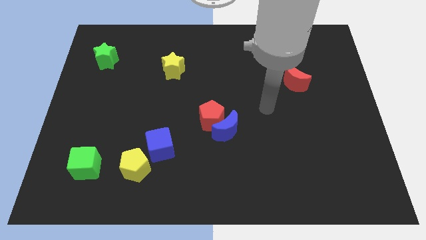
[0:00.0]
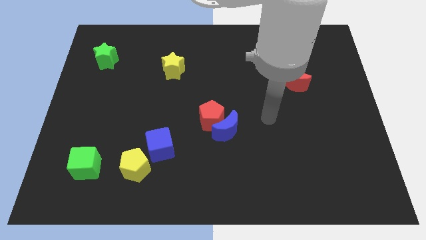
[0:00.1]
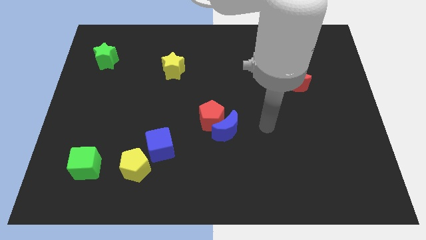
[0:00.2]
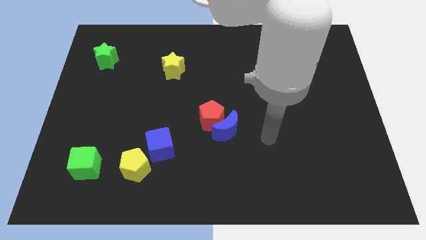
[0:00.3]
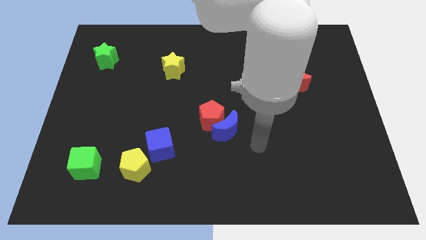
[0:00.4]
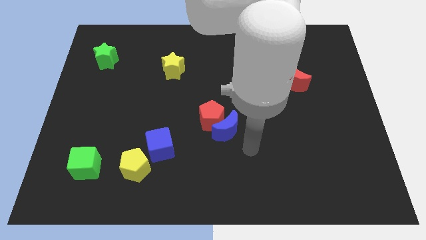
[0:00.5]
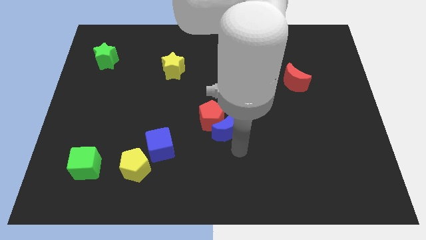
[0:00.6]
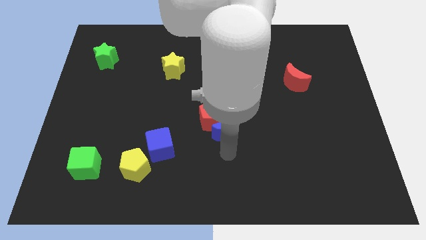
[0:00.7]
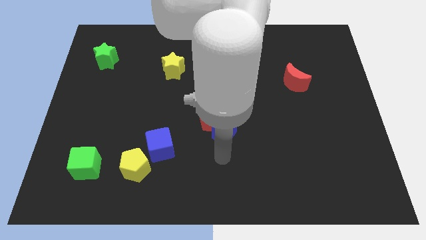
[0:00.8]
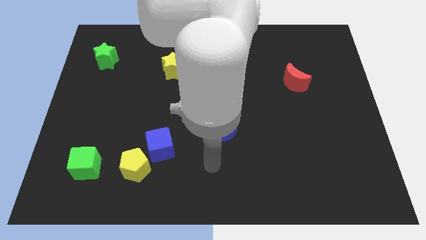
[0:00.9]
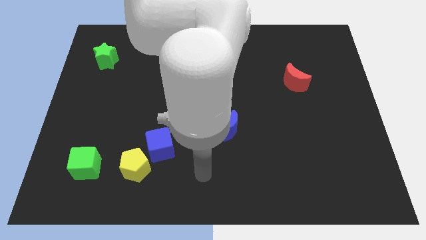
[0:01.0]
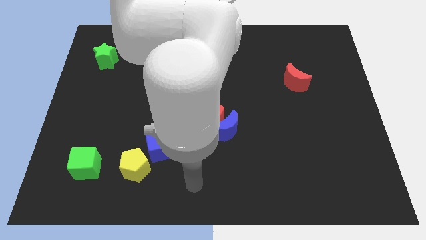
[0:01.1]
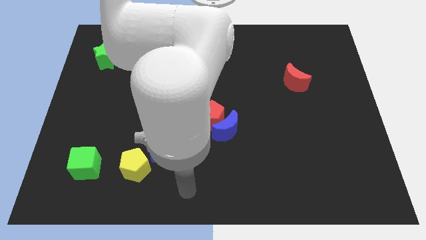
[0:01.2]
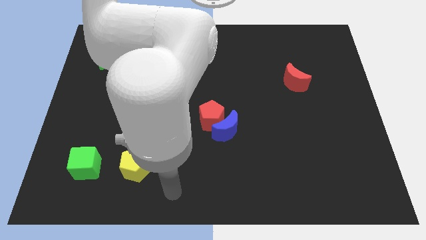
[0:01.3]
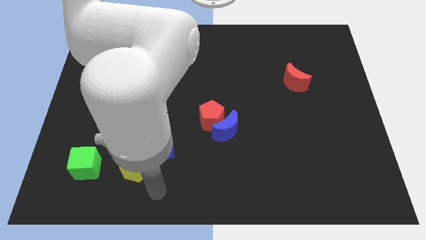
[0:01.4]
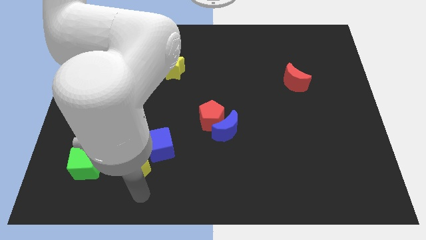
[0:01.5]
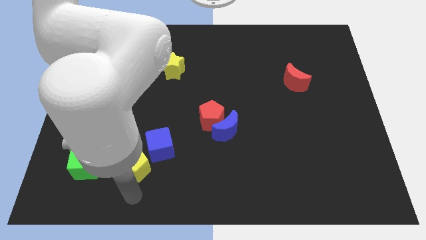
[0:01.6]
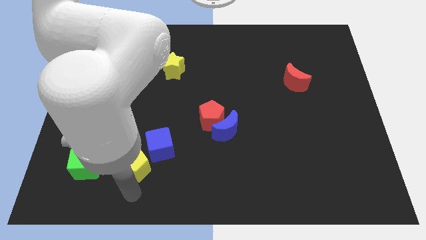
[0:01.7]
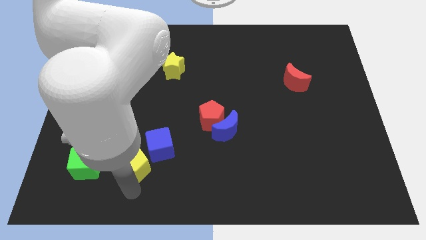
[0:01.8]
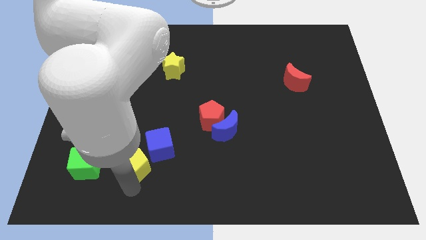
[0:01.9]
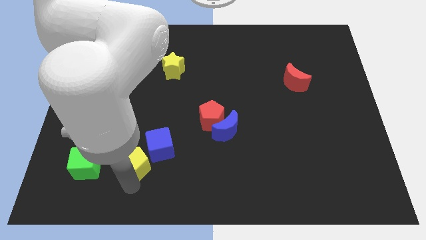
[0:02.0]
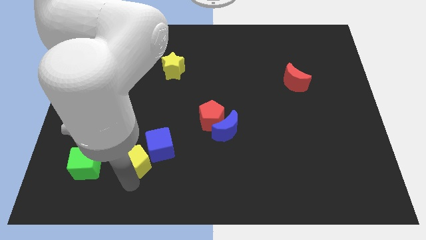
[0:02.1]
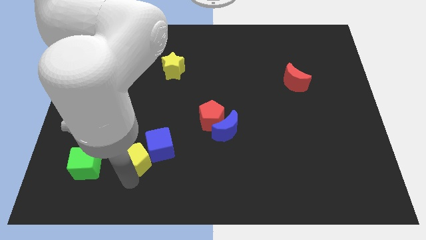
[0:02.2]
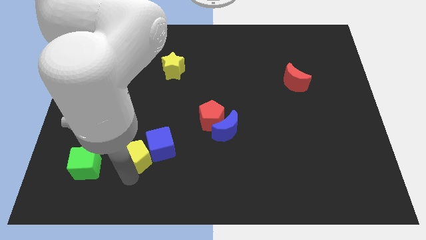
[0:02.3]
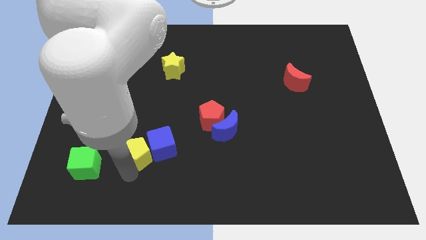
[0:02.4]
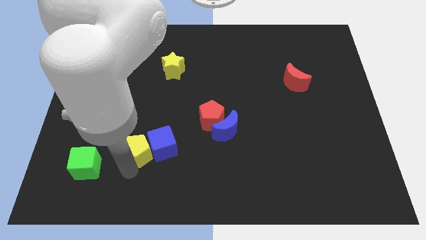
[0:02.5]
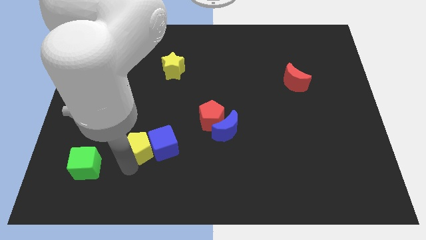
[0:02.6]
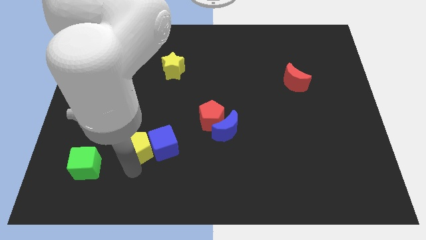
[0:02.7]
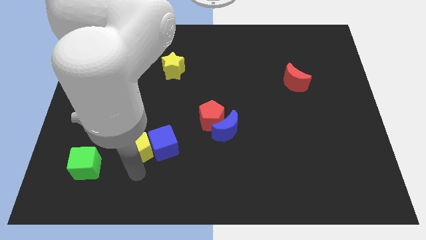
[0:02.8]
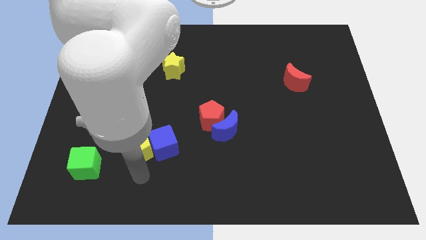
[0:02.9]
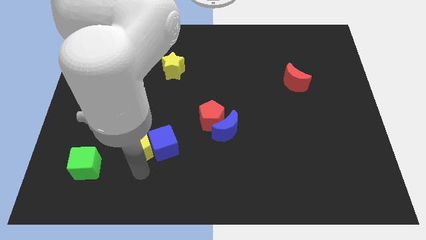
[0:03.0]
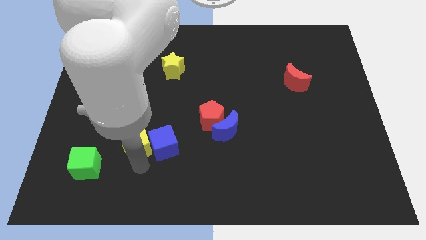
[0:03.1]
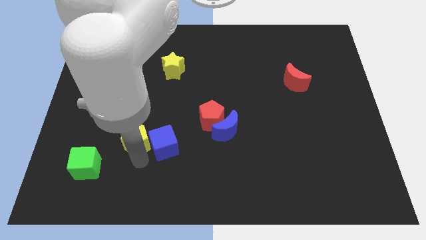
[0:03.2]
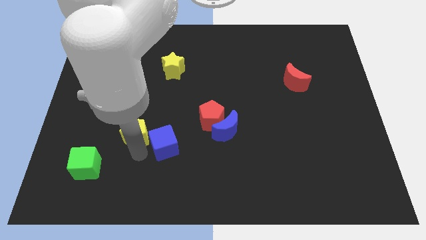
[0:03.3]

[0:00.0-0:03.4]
push the yellow pentagon a bit up

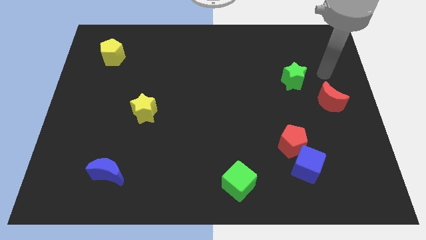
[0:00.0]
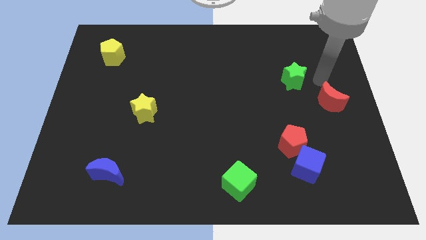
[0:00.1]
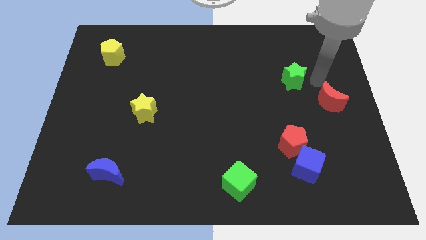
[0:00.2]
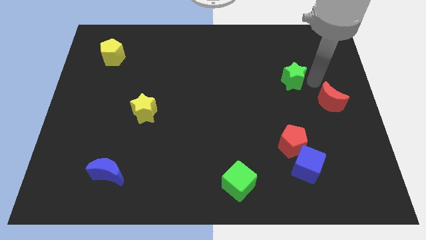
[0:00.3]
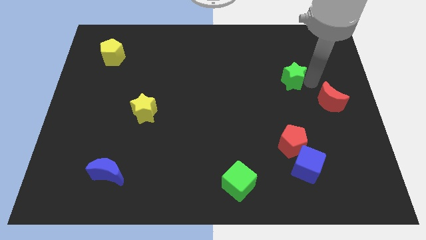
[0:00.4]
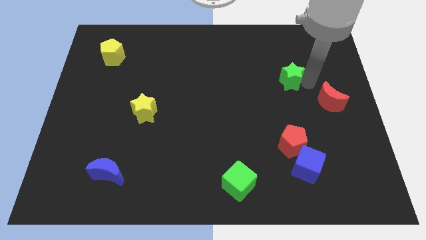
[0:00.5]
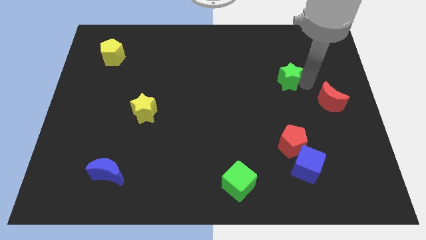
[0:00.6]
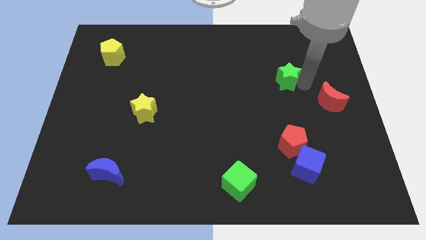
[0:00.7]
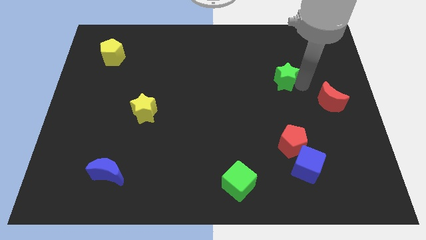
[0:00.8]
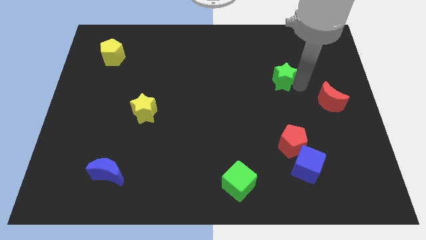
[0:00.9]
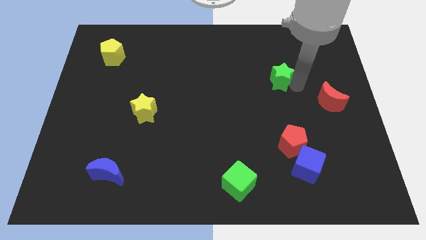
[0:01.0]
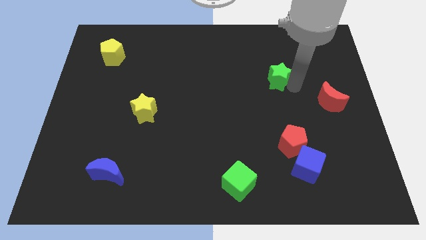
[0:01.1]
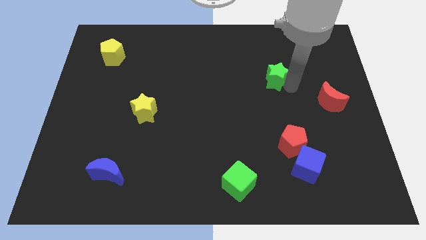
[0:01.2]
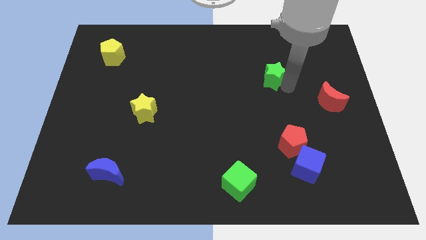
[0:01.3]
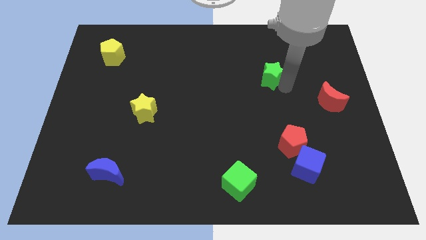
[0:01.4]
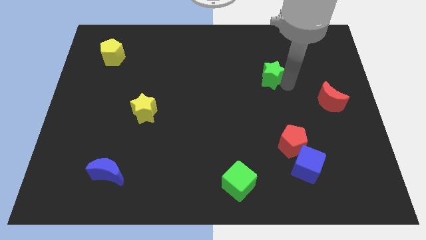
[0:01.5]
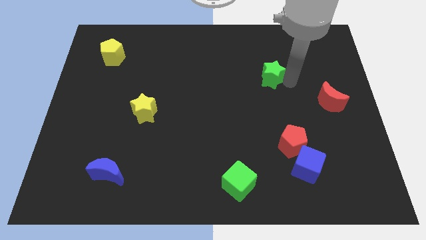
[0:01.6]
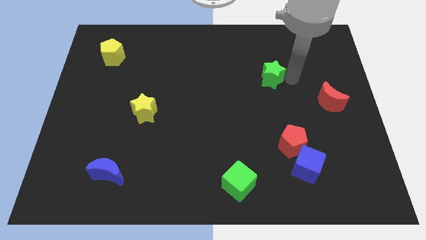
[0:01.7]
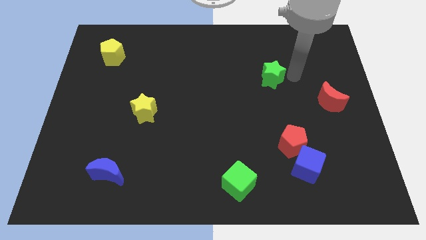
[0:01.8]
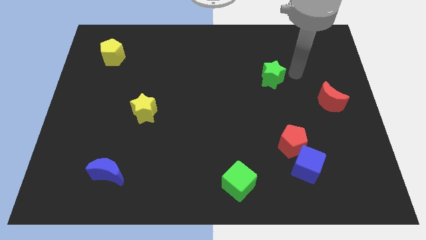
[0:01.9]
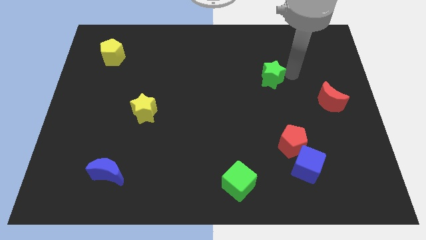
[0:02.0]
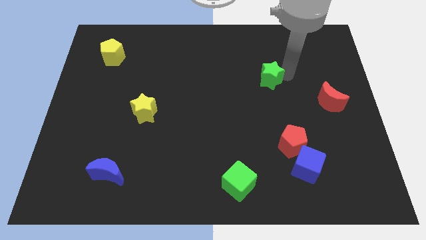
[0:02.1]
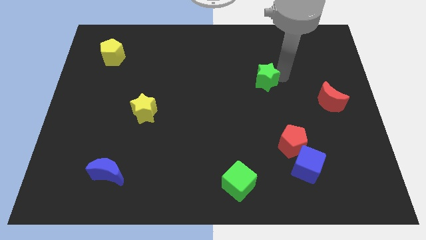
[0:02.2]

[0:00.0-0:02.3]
slightly move the green star left

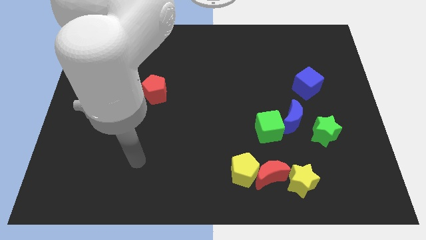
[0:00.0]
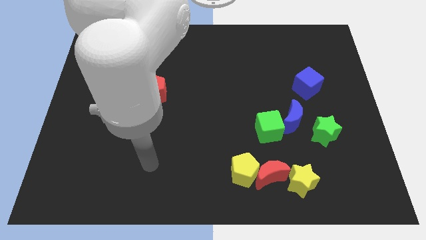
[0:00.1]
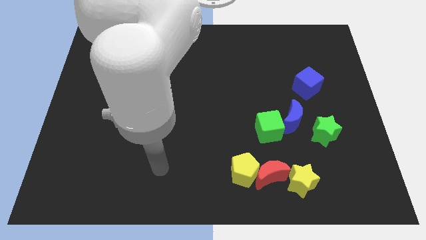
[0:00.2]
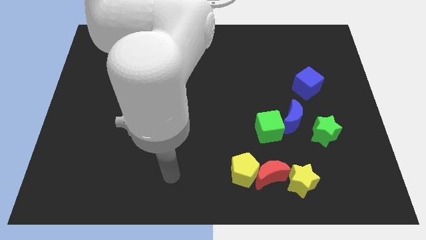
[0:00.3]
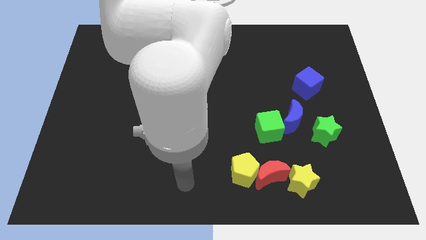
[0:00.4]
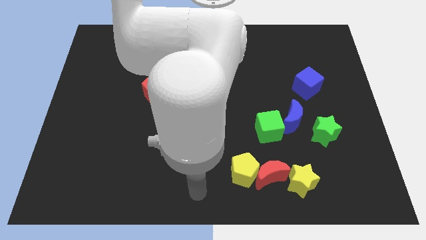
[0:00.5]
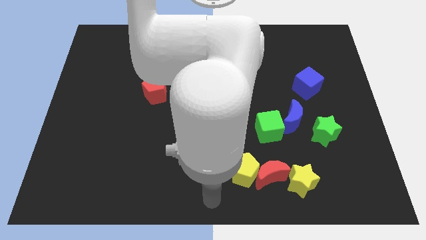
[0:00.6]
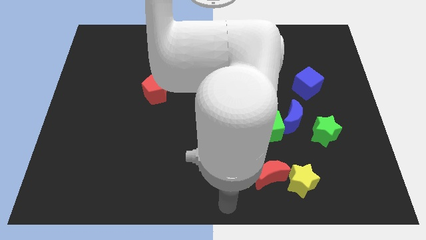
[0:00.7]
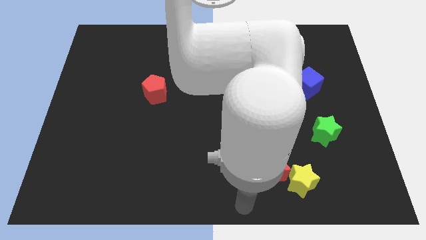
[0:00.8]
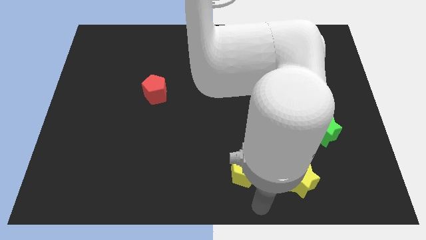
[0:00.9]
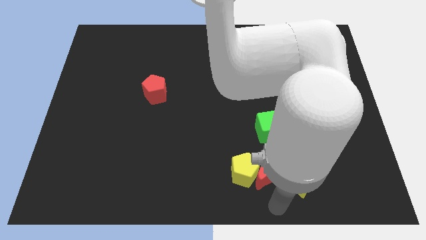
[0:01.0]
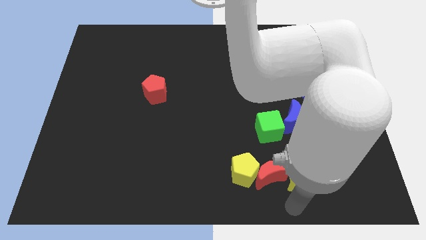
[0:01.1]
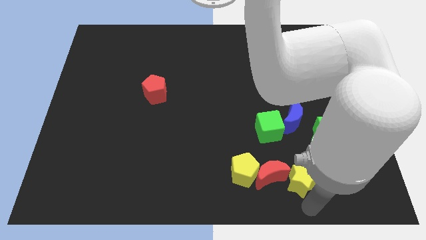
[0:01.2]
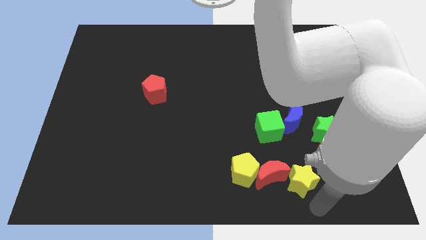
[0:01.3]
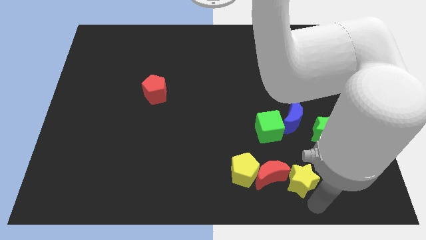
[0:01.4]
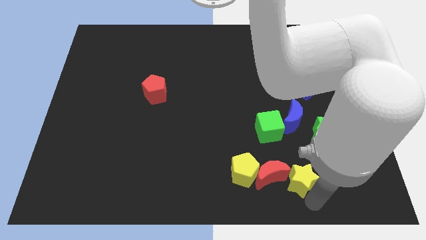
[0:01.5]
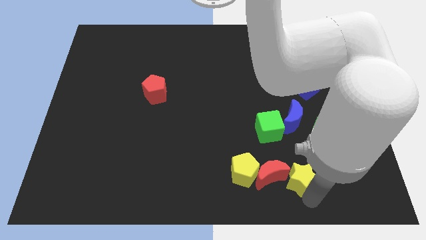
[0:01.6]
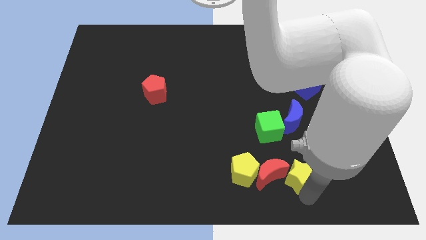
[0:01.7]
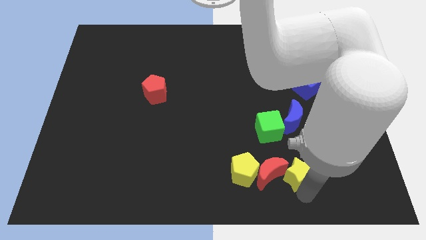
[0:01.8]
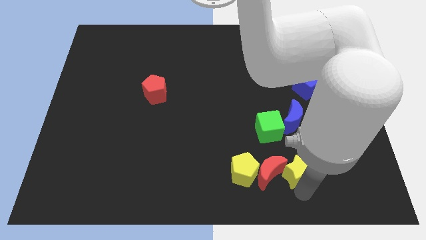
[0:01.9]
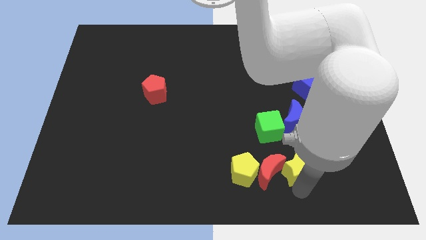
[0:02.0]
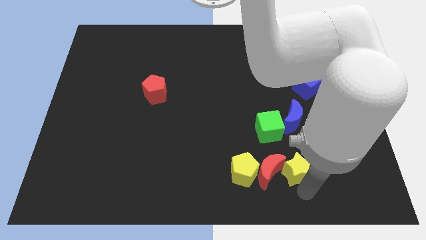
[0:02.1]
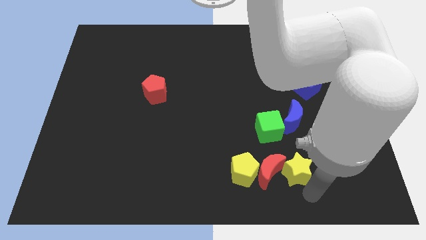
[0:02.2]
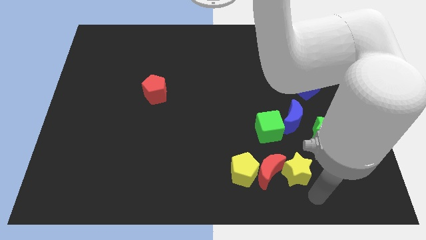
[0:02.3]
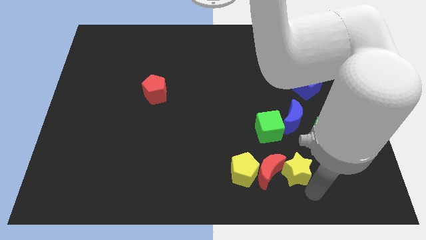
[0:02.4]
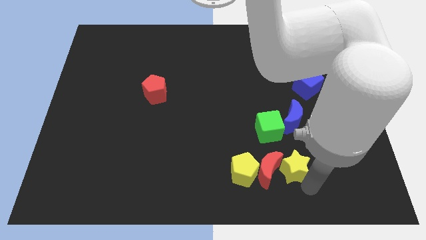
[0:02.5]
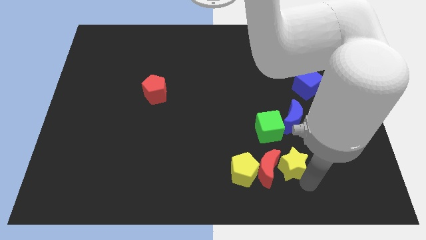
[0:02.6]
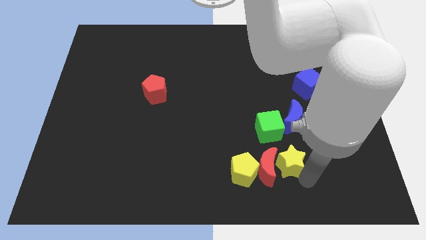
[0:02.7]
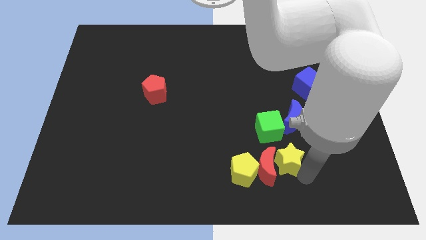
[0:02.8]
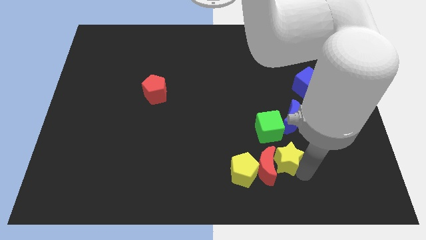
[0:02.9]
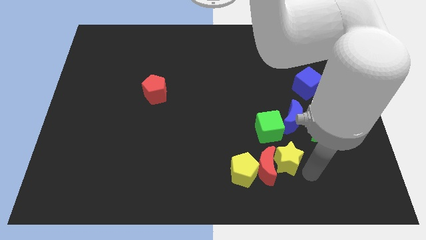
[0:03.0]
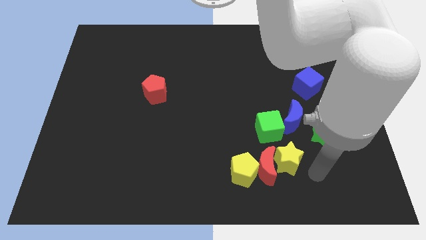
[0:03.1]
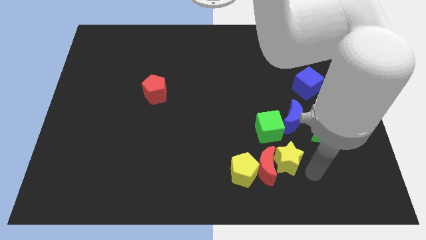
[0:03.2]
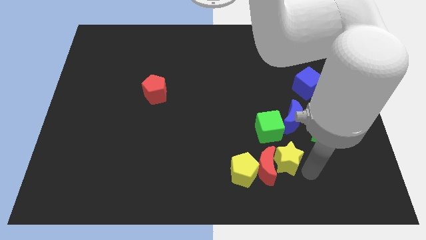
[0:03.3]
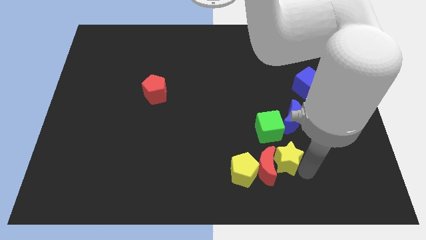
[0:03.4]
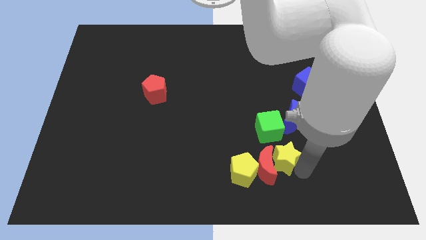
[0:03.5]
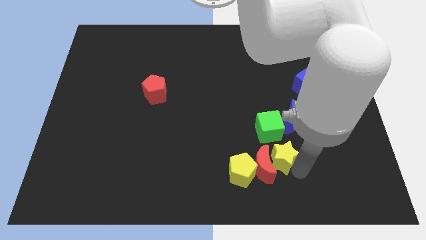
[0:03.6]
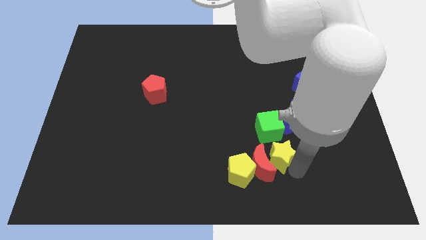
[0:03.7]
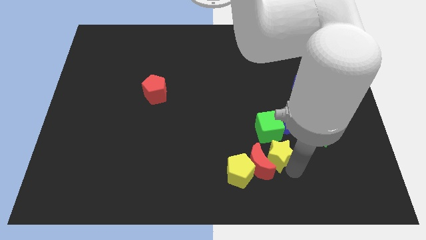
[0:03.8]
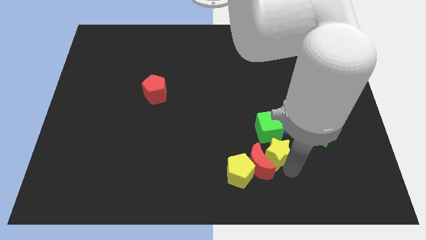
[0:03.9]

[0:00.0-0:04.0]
slightly slide the yellow star diagonally up and to the left
